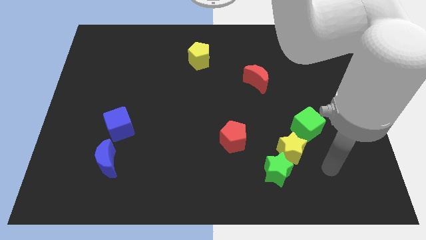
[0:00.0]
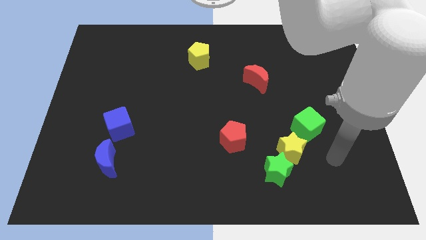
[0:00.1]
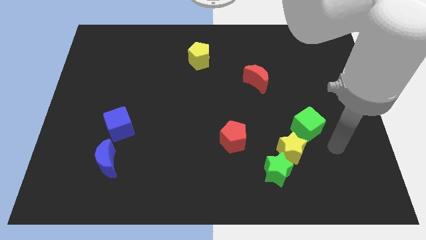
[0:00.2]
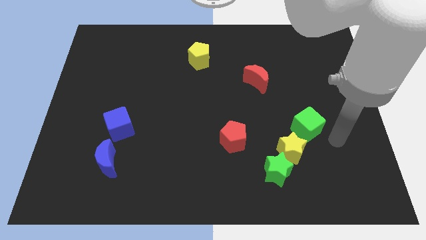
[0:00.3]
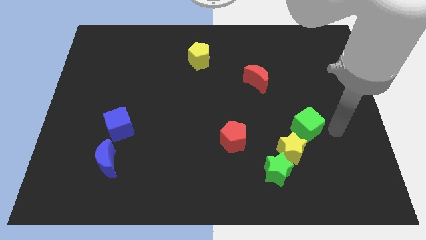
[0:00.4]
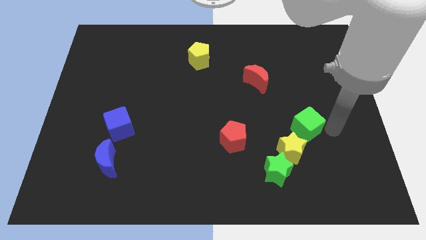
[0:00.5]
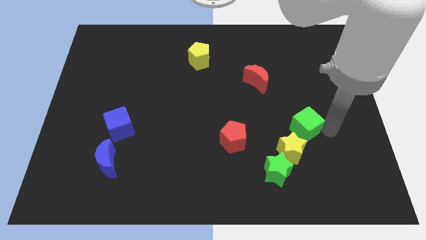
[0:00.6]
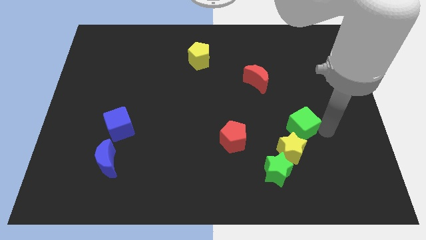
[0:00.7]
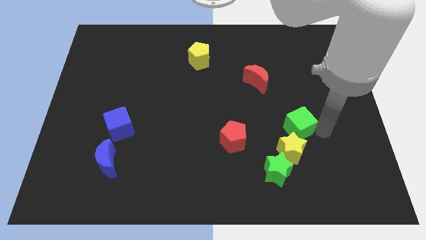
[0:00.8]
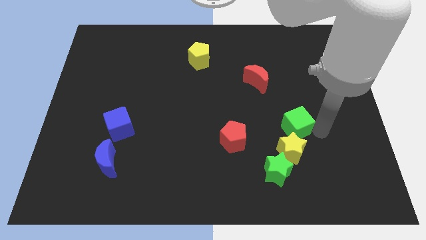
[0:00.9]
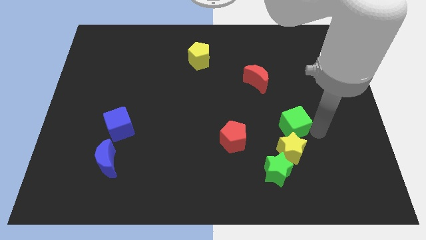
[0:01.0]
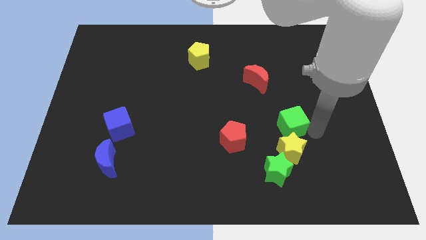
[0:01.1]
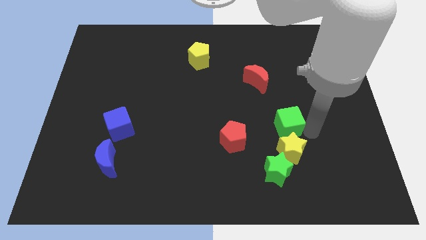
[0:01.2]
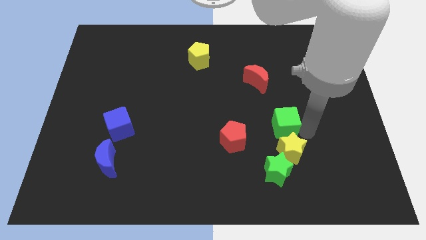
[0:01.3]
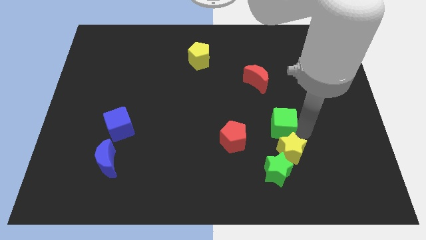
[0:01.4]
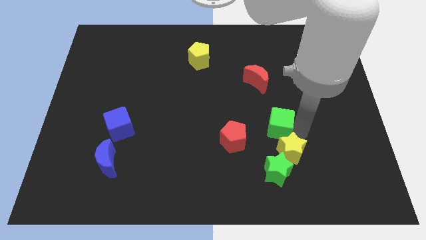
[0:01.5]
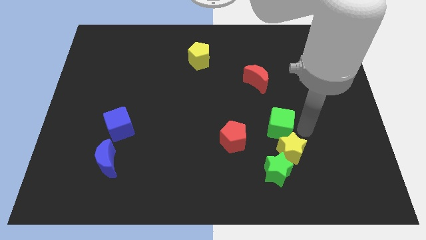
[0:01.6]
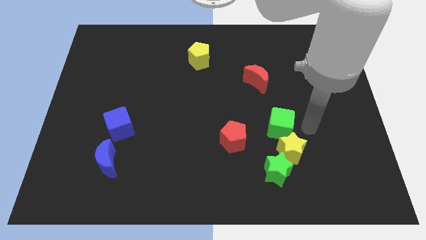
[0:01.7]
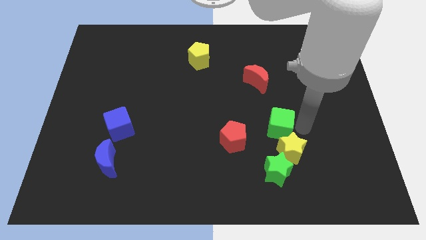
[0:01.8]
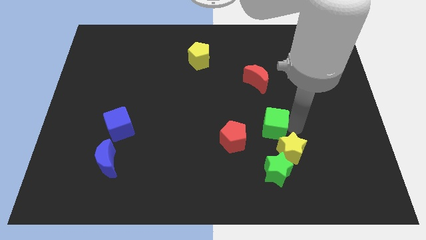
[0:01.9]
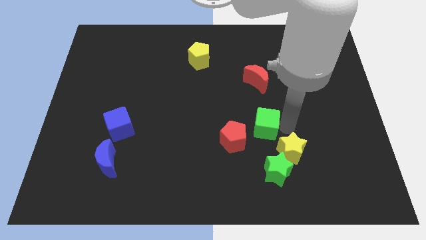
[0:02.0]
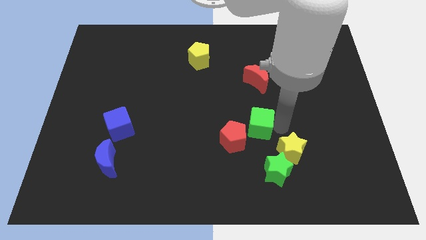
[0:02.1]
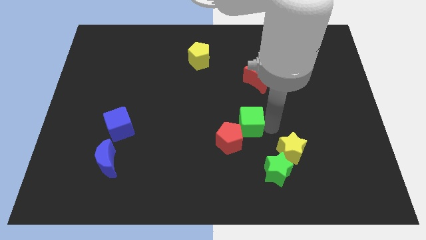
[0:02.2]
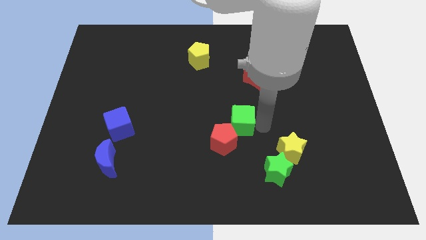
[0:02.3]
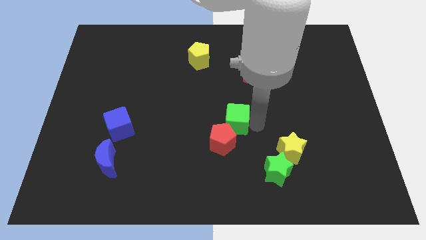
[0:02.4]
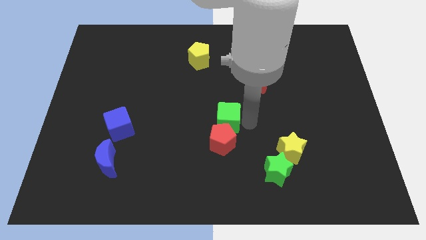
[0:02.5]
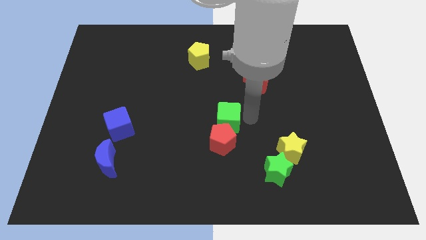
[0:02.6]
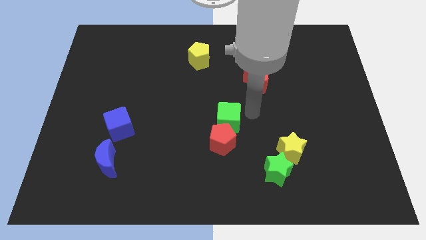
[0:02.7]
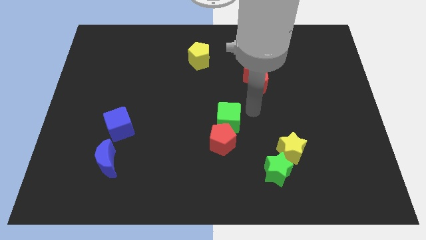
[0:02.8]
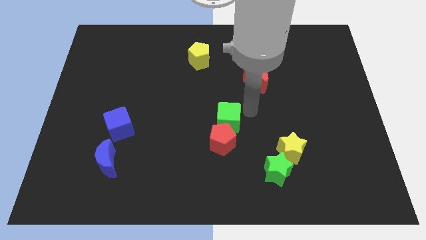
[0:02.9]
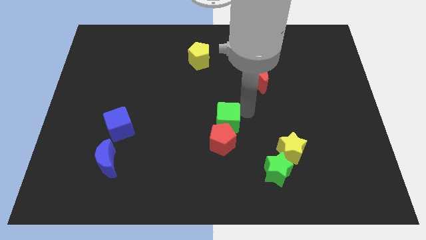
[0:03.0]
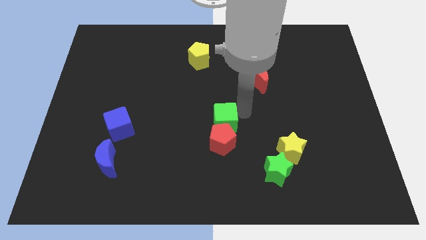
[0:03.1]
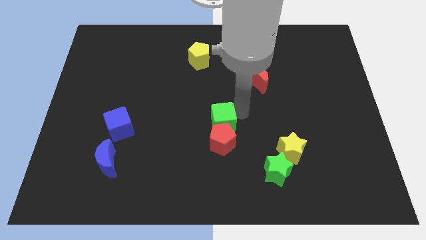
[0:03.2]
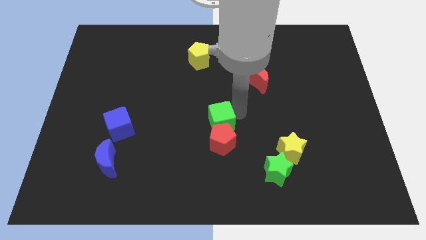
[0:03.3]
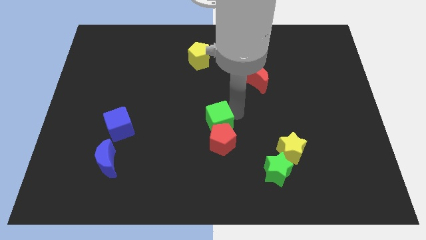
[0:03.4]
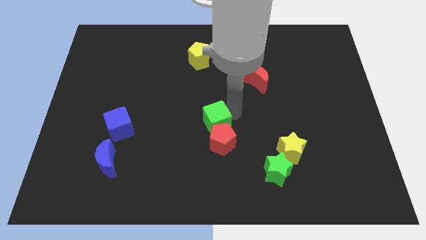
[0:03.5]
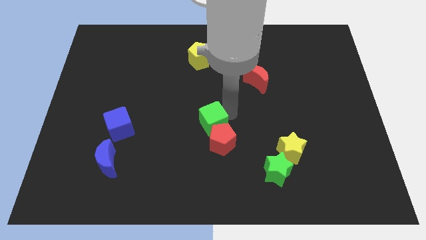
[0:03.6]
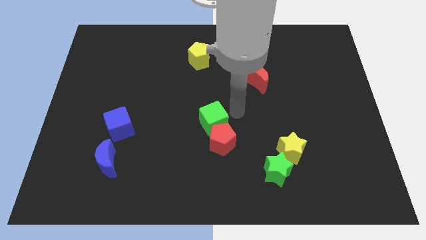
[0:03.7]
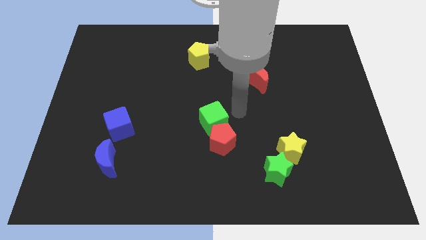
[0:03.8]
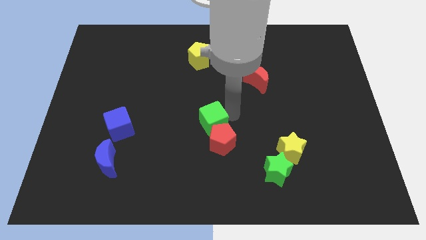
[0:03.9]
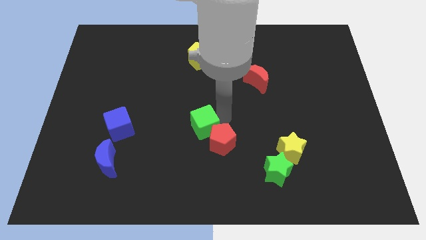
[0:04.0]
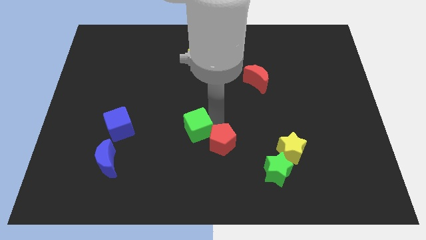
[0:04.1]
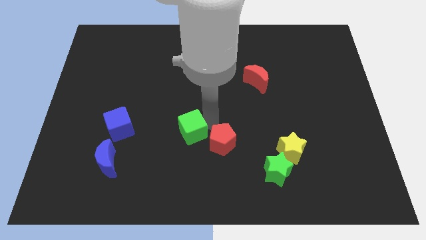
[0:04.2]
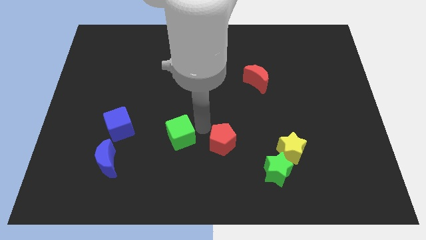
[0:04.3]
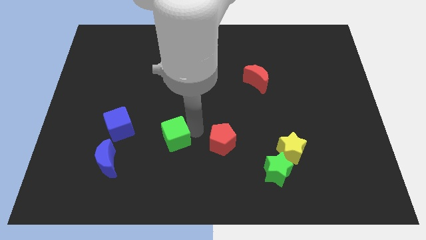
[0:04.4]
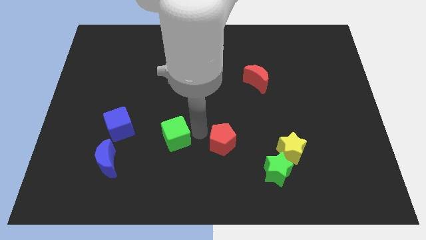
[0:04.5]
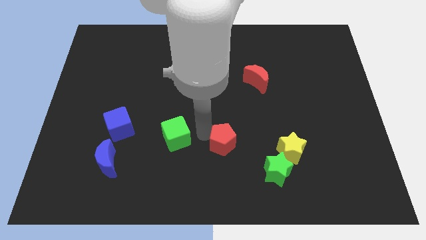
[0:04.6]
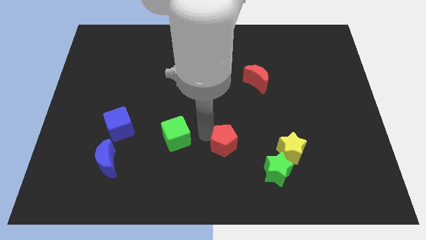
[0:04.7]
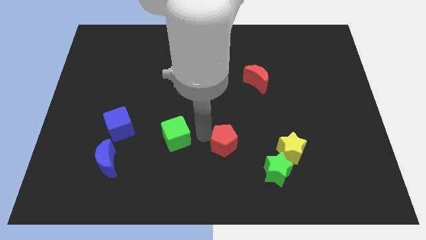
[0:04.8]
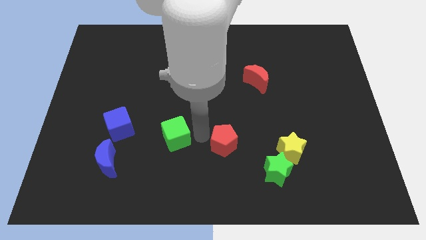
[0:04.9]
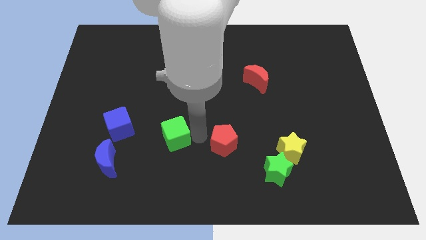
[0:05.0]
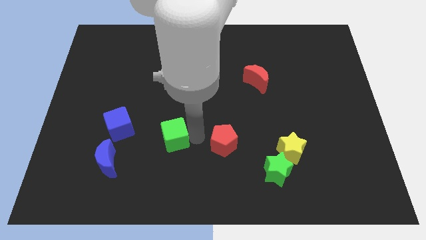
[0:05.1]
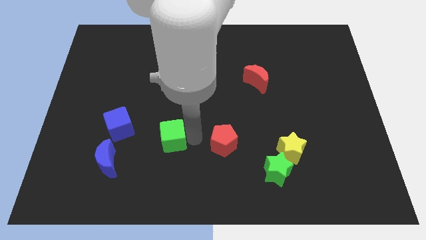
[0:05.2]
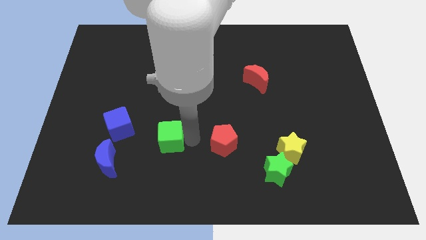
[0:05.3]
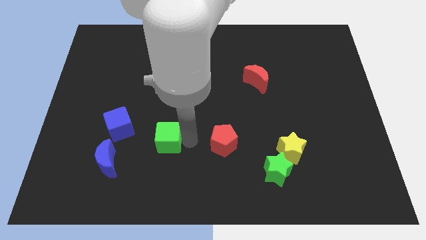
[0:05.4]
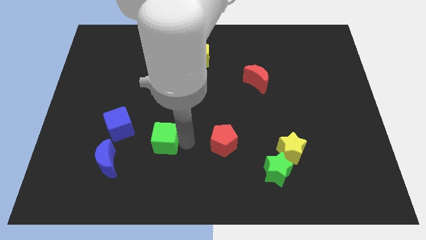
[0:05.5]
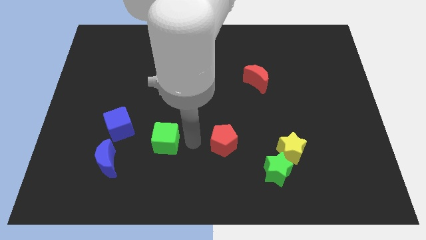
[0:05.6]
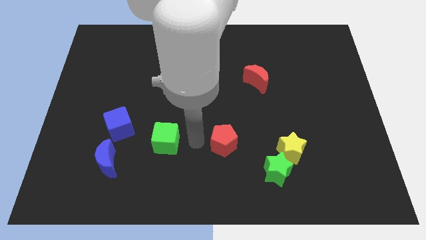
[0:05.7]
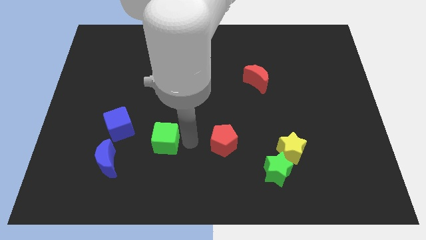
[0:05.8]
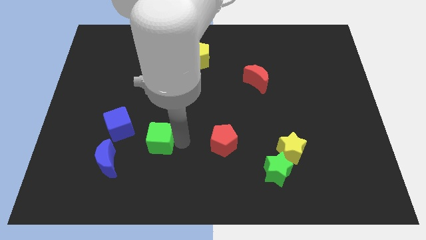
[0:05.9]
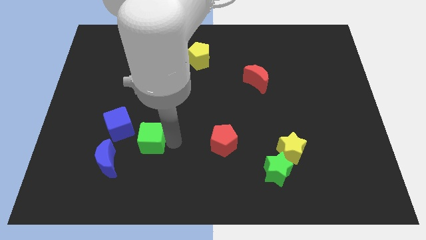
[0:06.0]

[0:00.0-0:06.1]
slide the green cube diagonally up and to the right of the blue moon

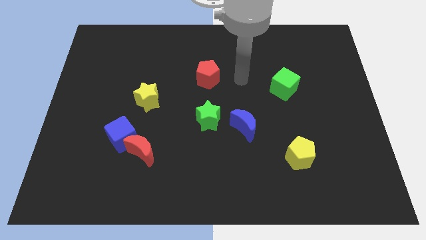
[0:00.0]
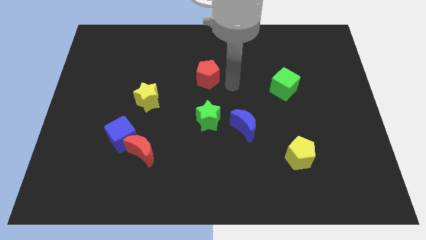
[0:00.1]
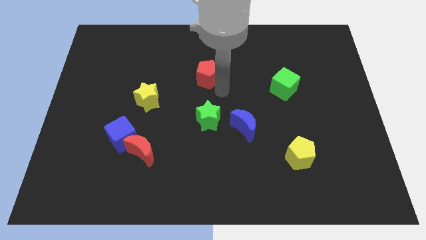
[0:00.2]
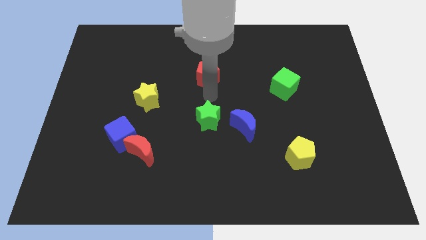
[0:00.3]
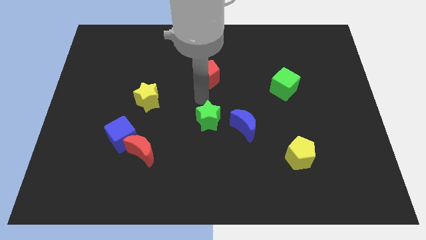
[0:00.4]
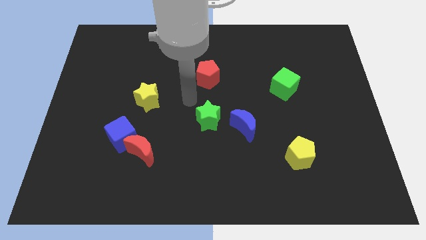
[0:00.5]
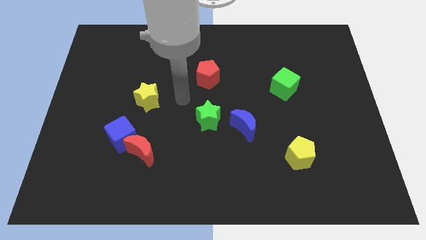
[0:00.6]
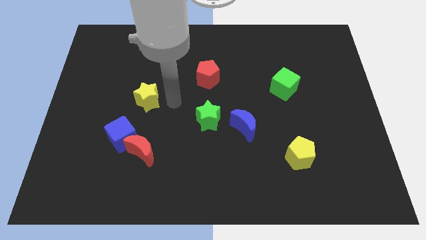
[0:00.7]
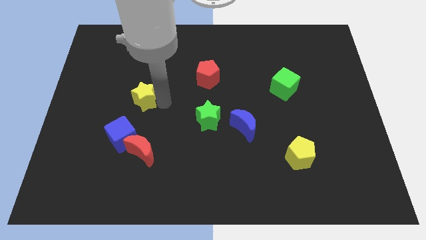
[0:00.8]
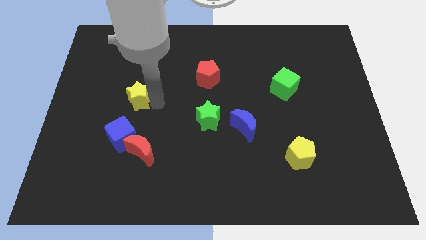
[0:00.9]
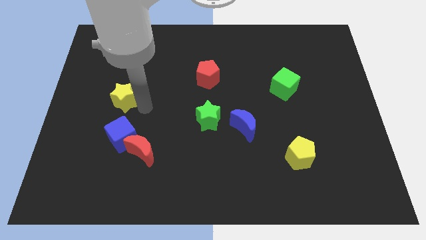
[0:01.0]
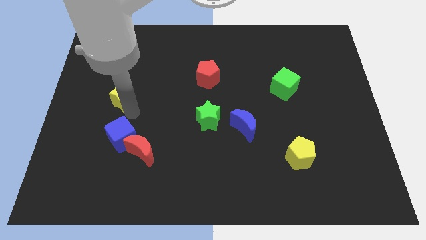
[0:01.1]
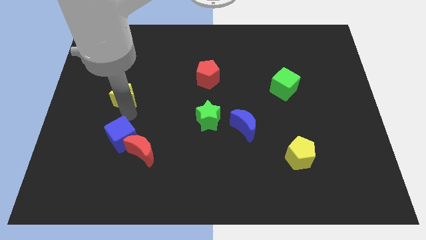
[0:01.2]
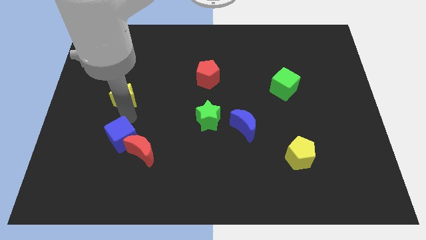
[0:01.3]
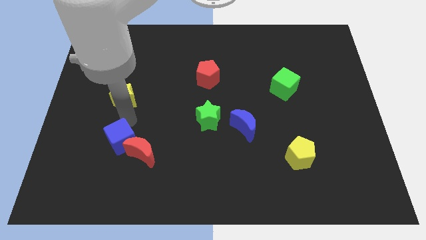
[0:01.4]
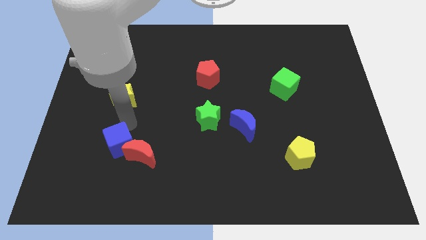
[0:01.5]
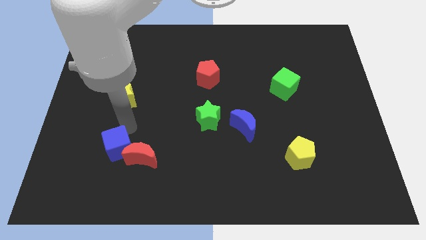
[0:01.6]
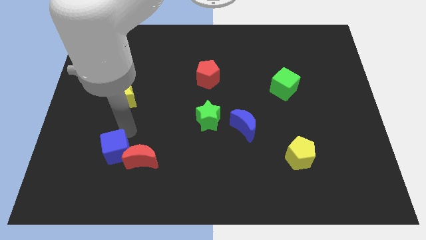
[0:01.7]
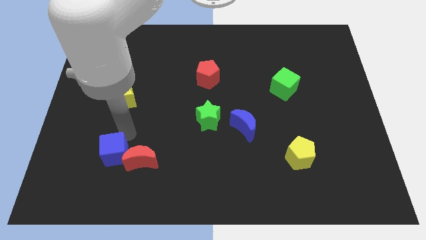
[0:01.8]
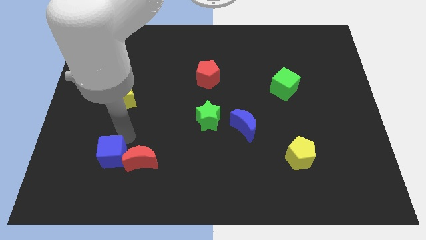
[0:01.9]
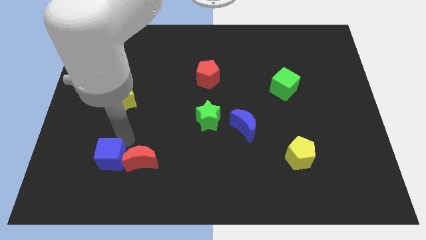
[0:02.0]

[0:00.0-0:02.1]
push the blue cube to the bottom left of the red moon
